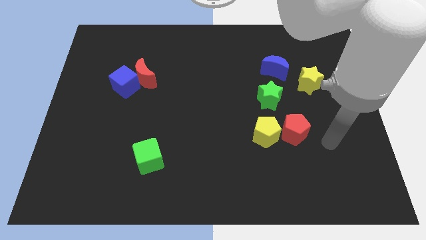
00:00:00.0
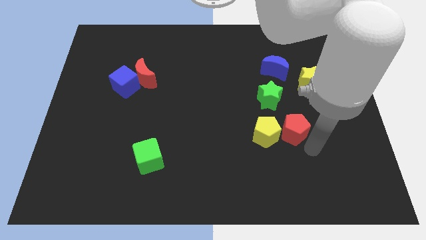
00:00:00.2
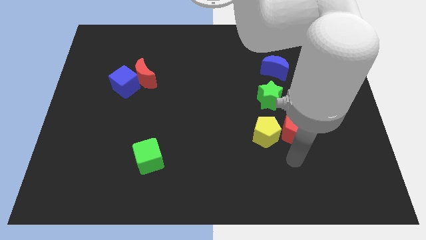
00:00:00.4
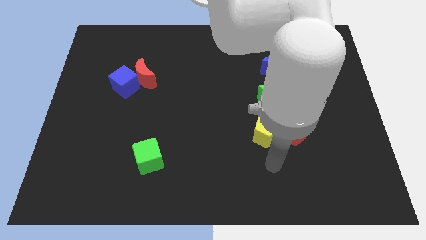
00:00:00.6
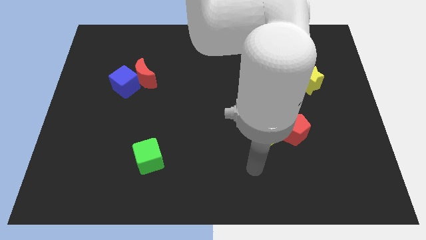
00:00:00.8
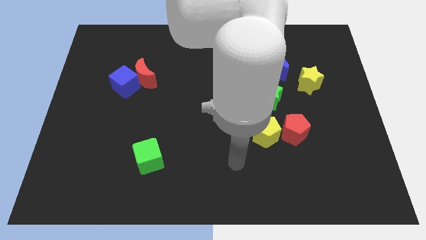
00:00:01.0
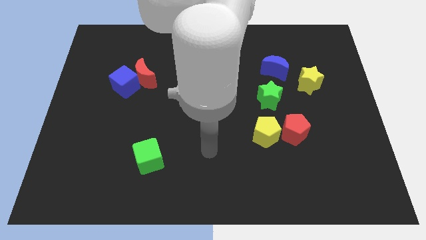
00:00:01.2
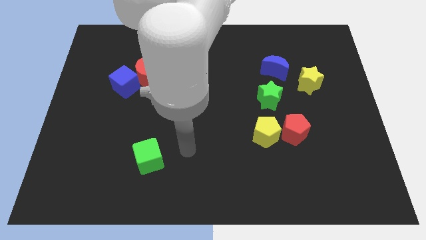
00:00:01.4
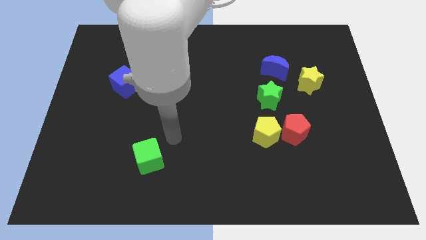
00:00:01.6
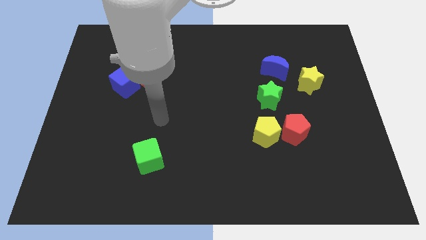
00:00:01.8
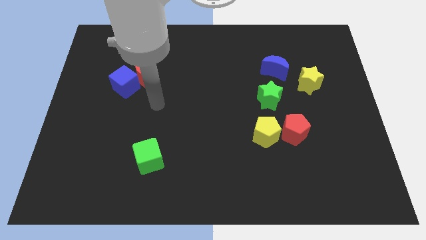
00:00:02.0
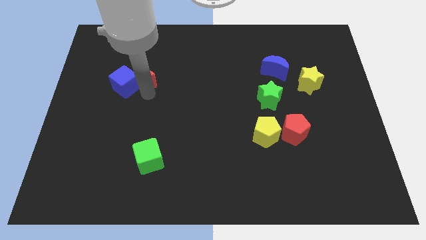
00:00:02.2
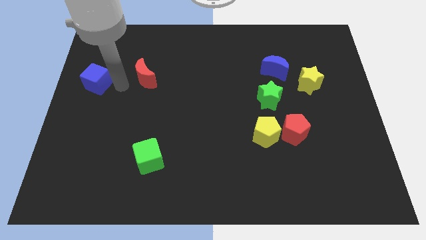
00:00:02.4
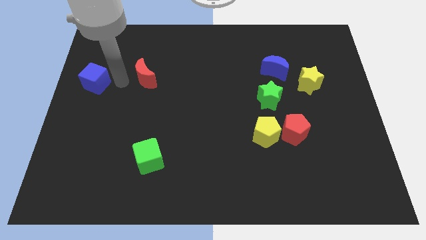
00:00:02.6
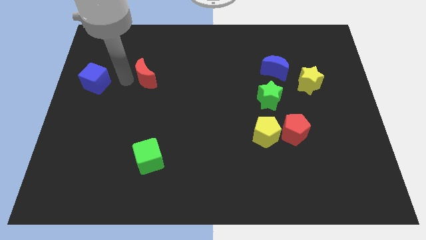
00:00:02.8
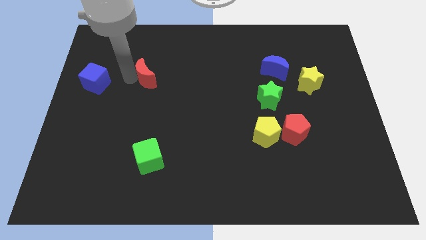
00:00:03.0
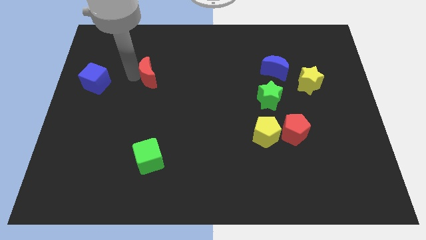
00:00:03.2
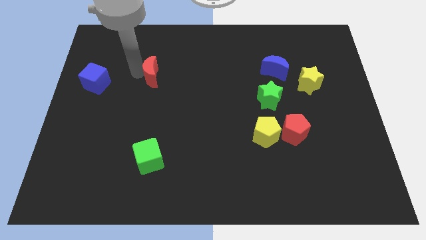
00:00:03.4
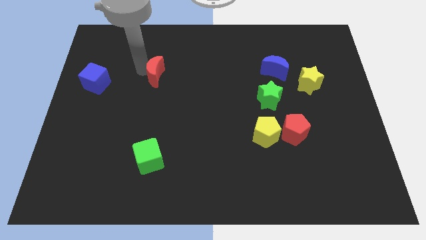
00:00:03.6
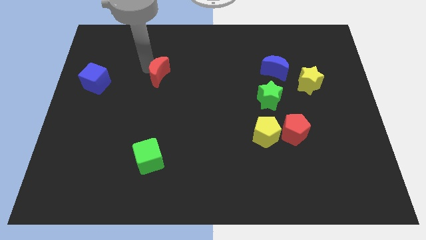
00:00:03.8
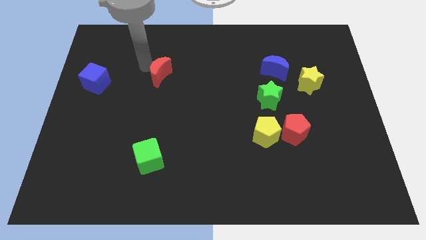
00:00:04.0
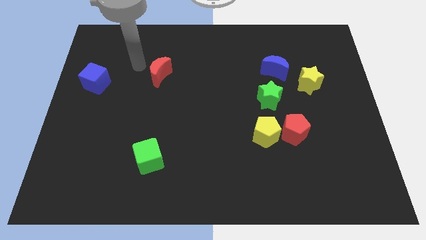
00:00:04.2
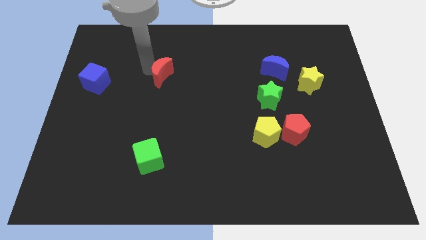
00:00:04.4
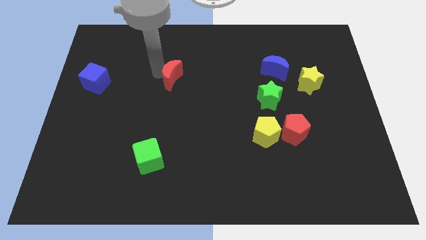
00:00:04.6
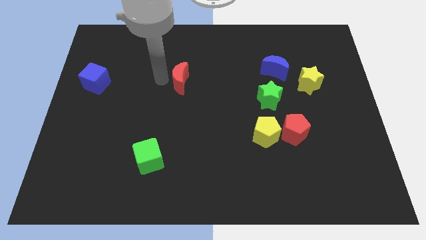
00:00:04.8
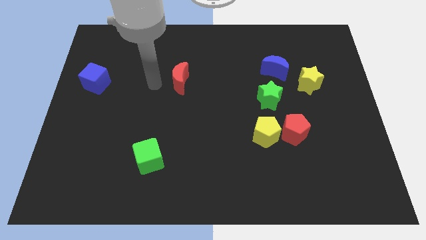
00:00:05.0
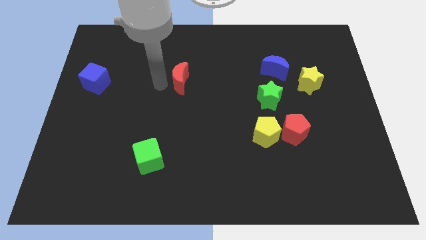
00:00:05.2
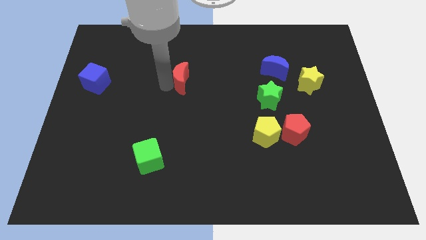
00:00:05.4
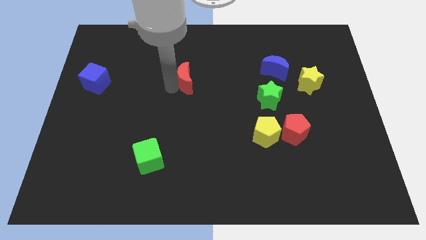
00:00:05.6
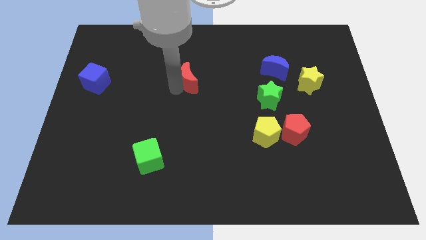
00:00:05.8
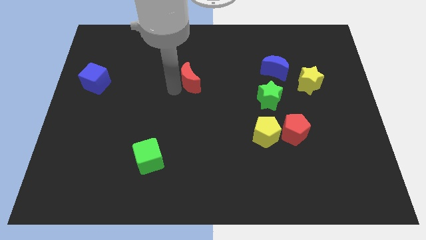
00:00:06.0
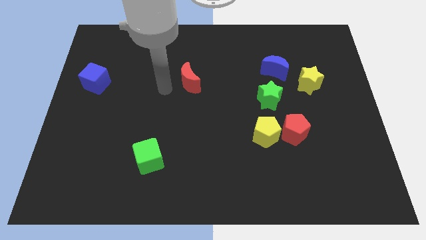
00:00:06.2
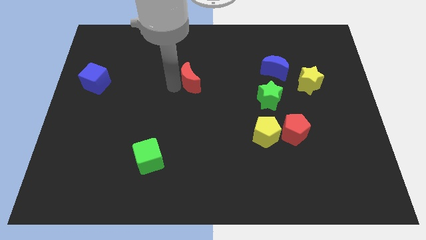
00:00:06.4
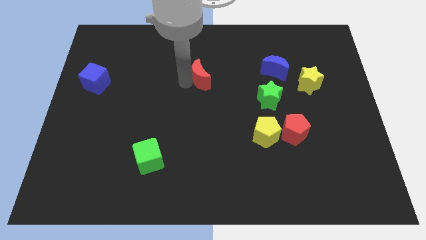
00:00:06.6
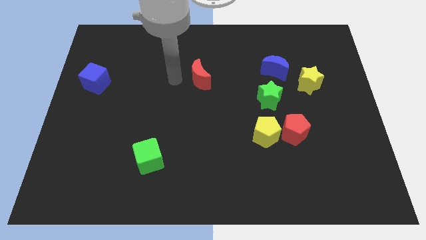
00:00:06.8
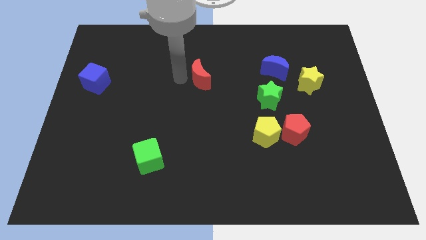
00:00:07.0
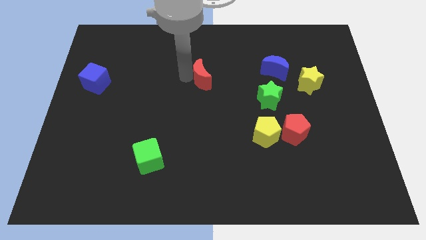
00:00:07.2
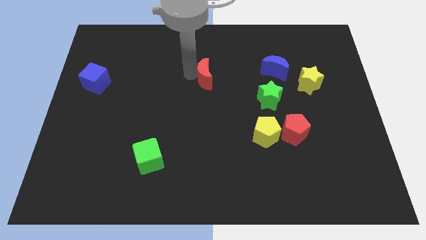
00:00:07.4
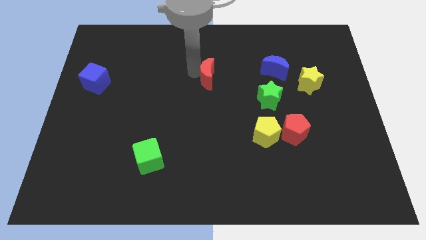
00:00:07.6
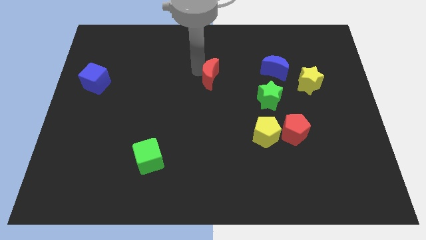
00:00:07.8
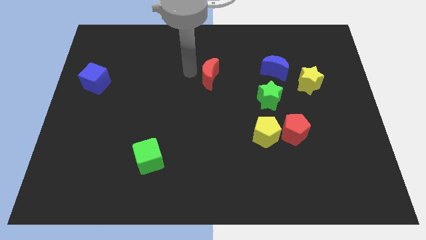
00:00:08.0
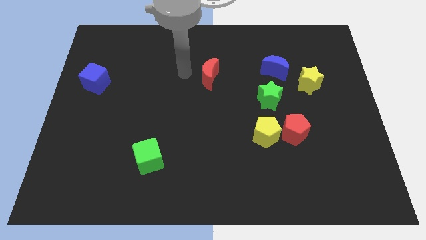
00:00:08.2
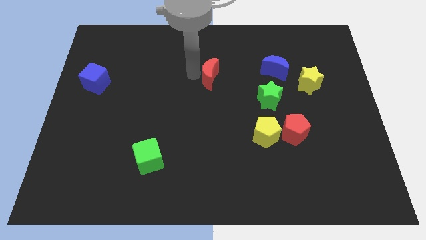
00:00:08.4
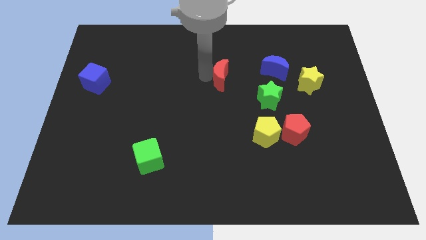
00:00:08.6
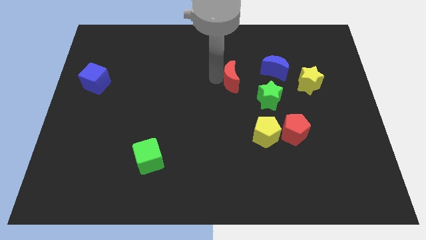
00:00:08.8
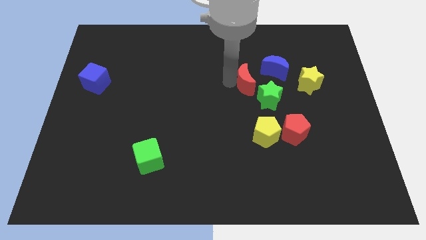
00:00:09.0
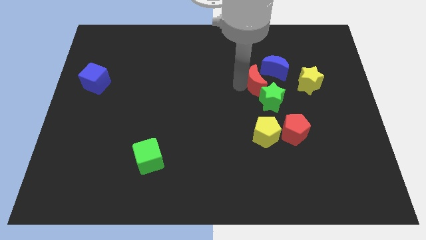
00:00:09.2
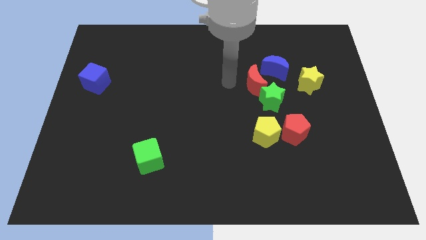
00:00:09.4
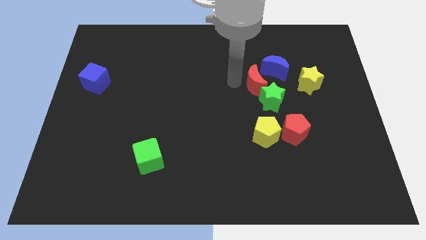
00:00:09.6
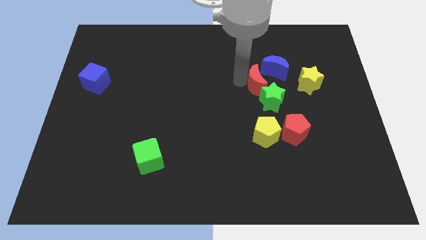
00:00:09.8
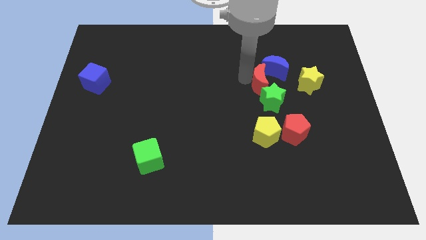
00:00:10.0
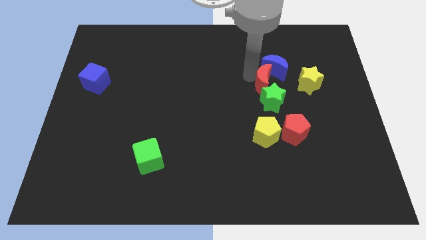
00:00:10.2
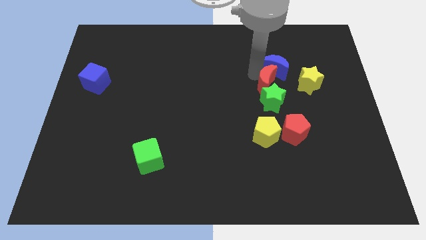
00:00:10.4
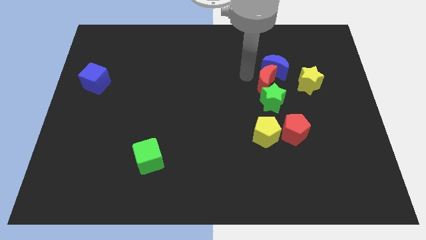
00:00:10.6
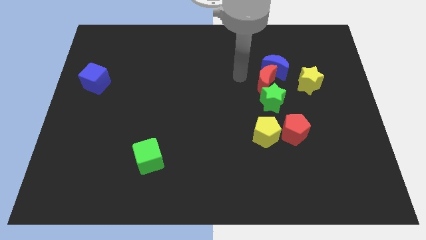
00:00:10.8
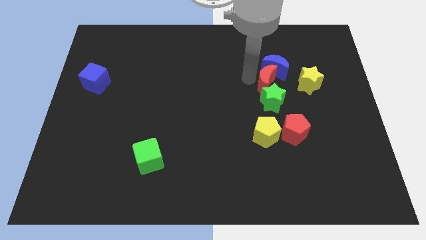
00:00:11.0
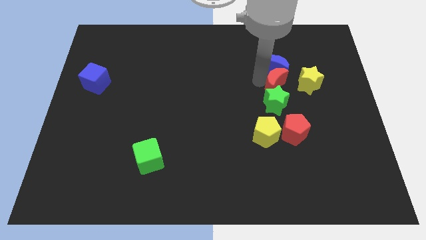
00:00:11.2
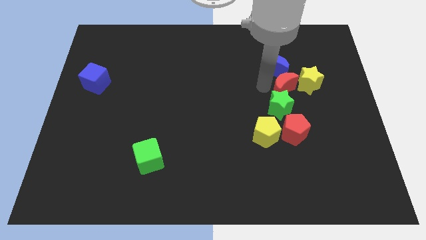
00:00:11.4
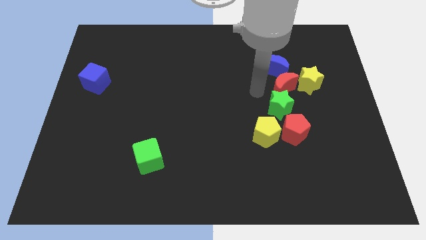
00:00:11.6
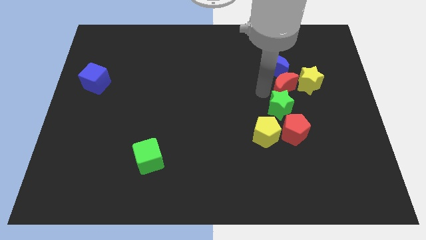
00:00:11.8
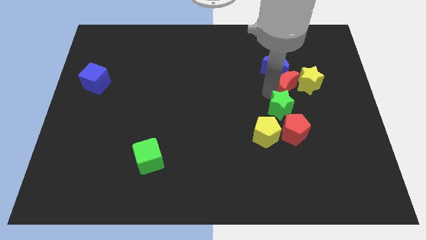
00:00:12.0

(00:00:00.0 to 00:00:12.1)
put the red moon towards the yellow star
